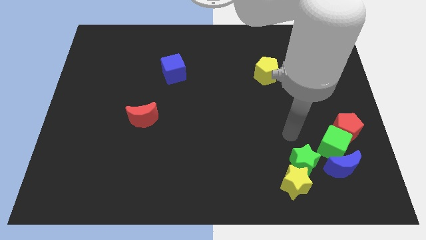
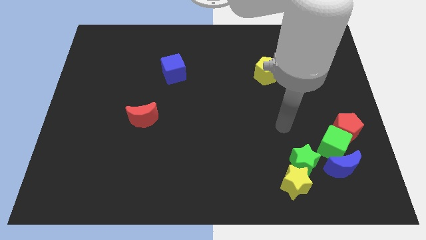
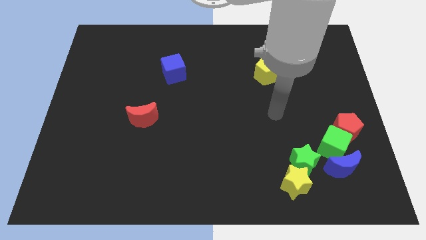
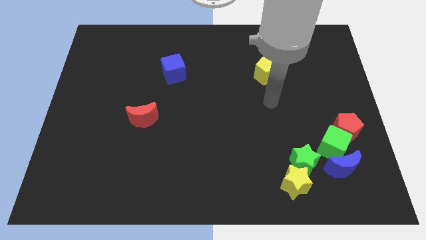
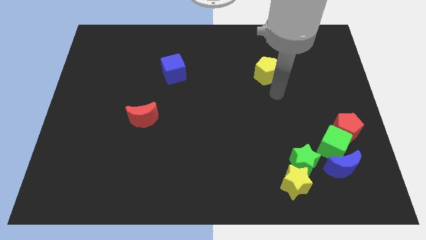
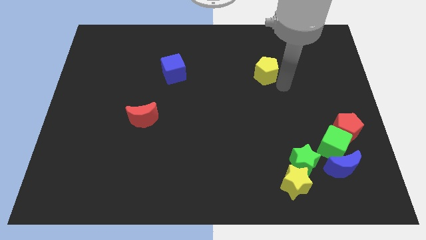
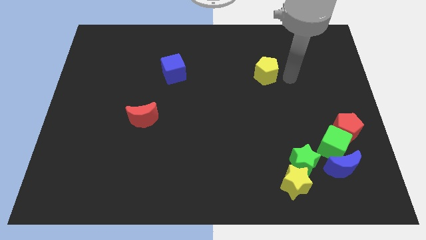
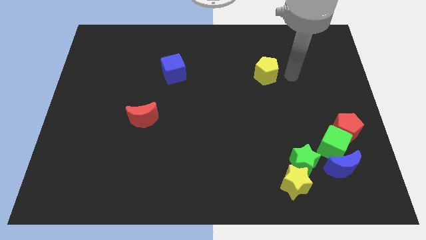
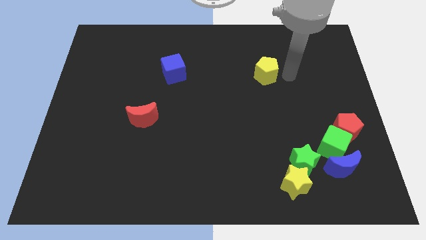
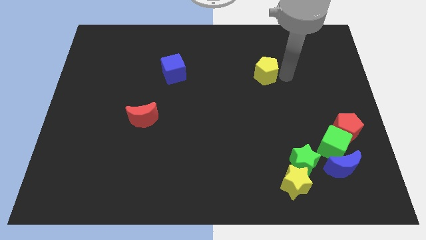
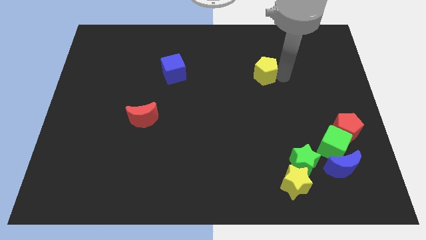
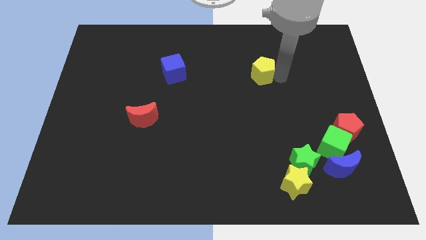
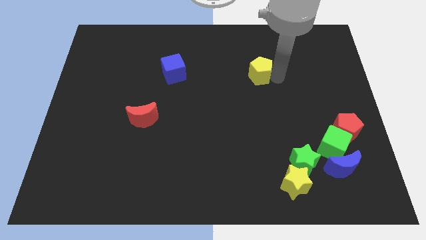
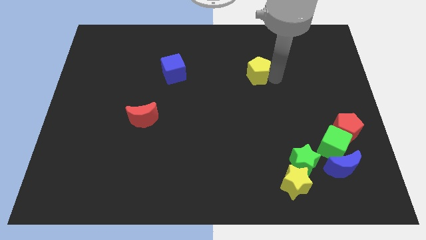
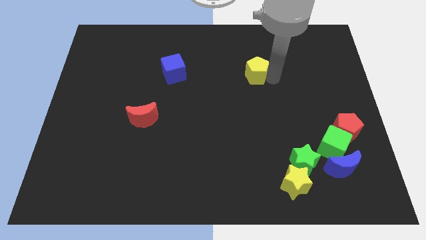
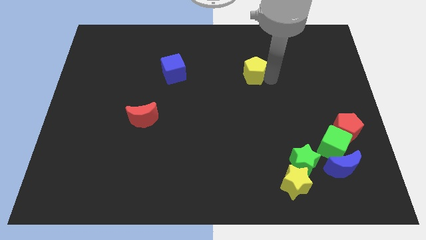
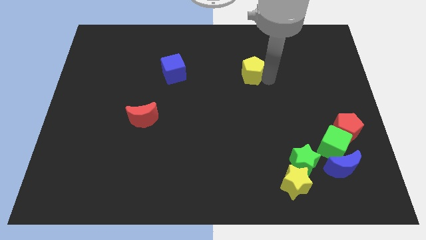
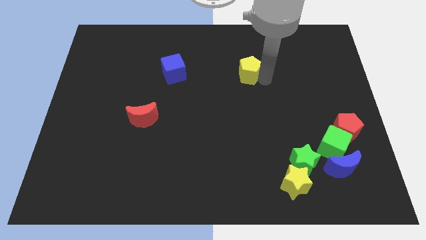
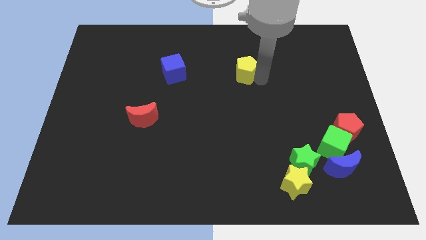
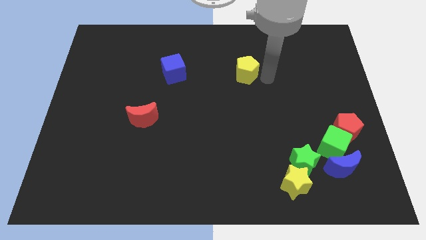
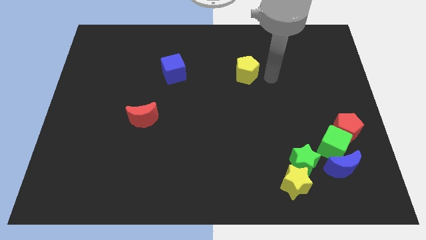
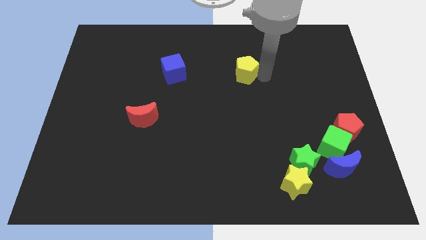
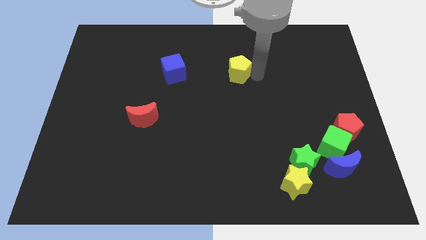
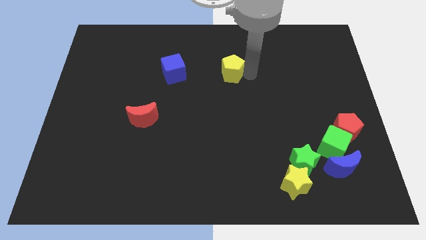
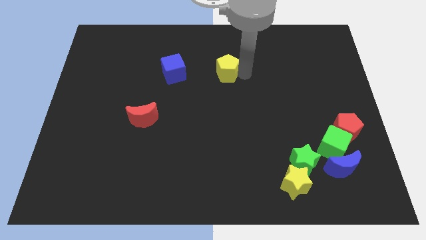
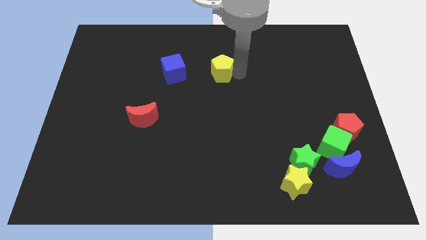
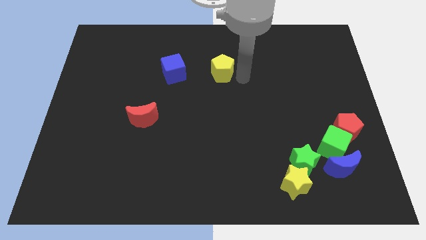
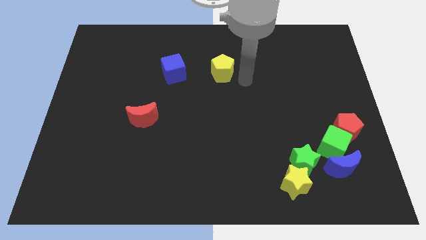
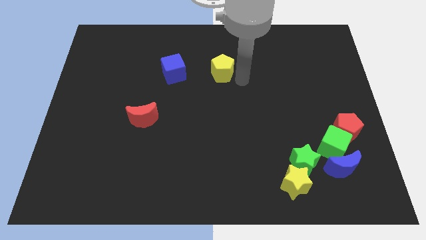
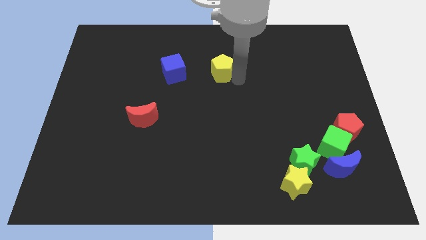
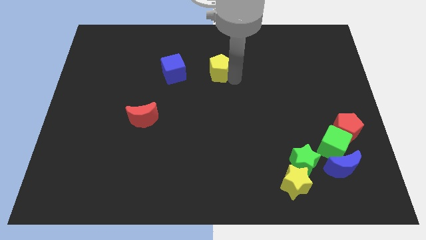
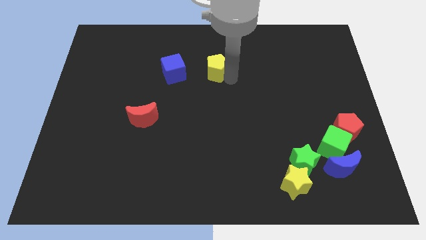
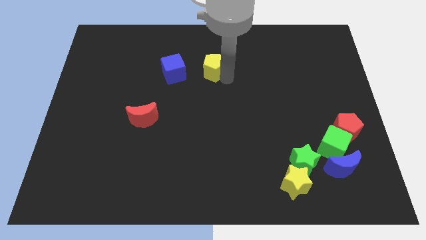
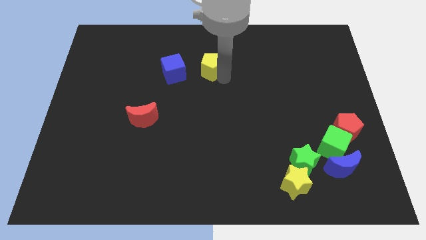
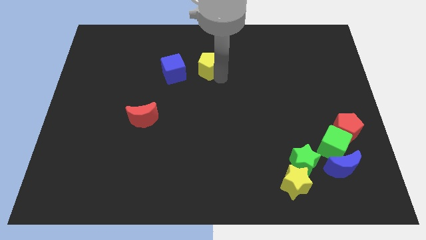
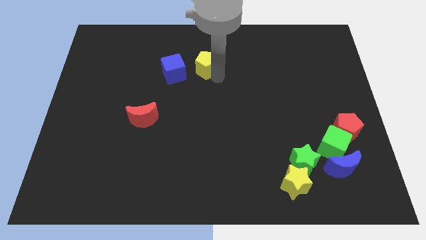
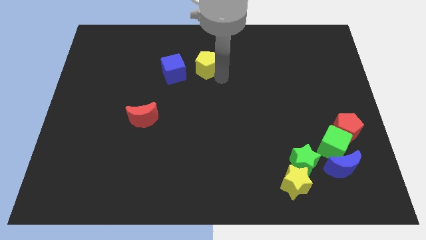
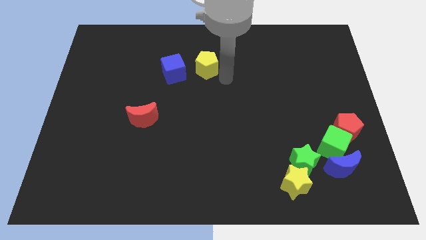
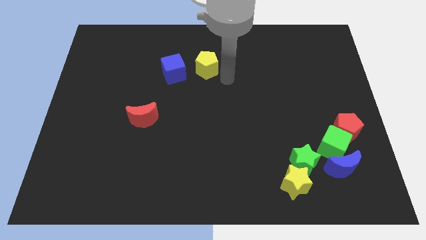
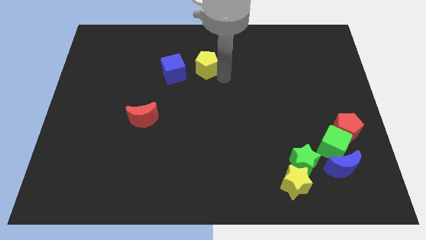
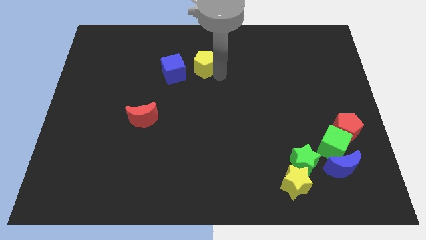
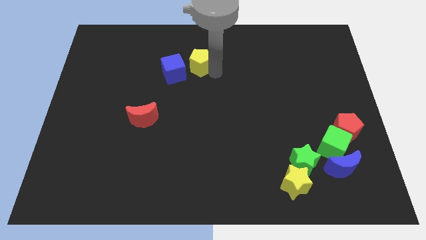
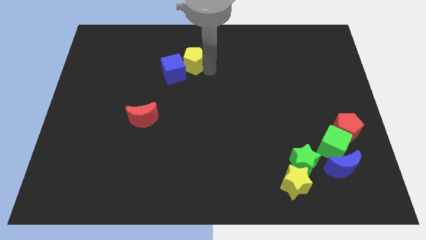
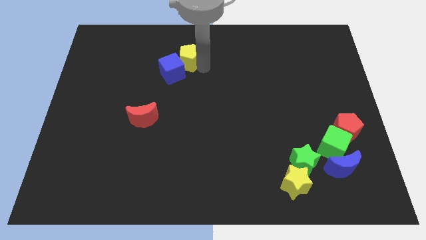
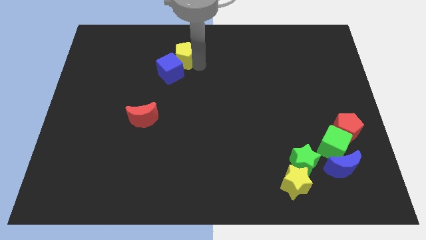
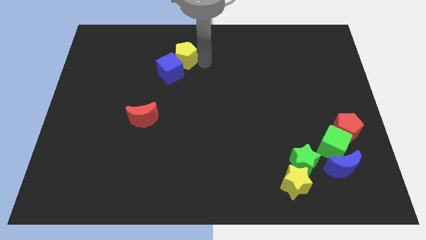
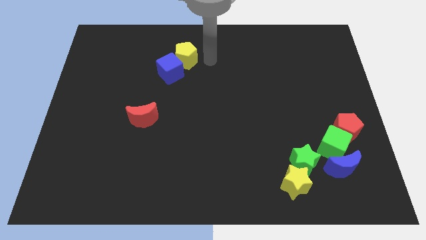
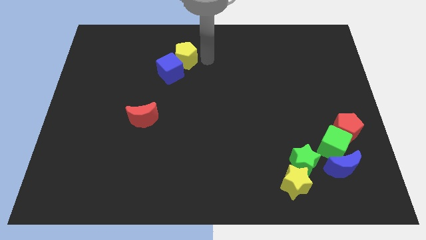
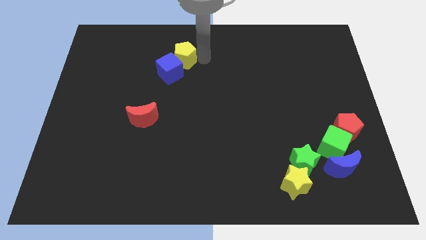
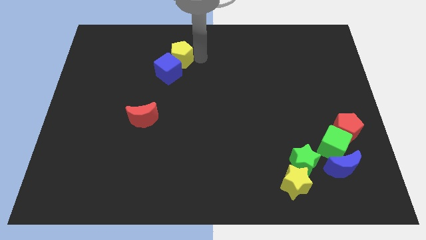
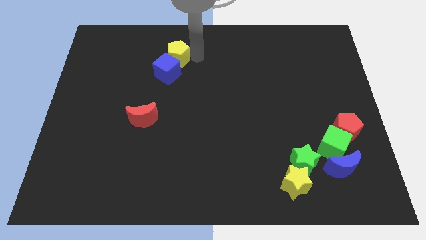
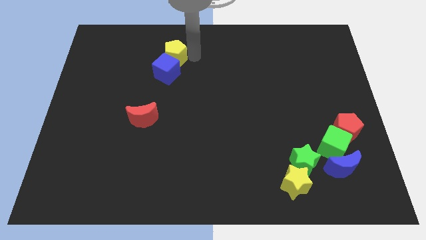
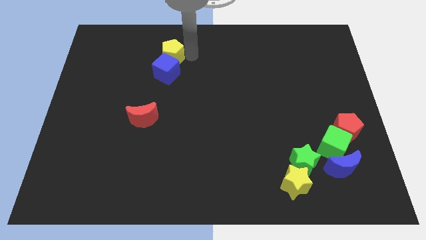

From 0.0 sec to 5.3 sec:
slide the yellow pentagon to the top left side of the blue cube
